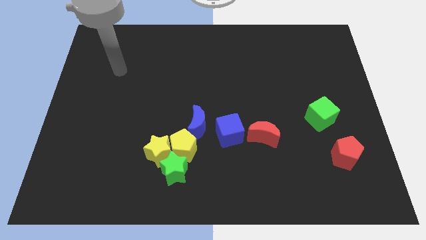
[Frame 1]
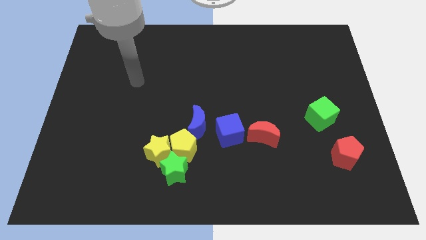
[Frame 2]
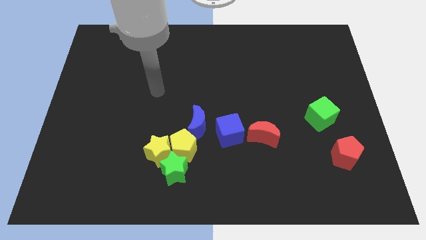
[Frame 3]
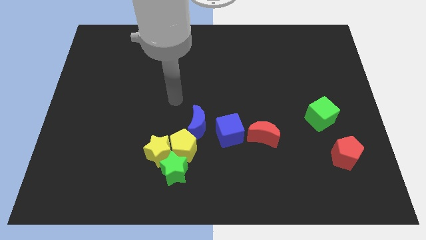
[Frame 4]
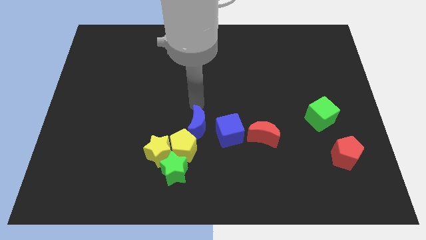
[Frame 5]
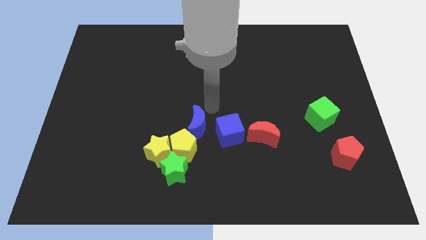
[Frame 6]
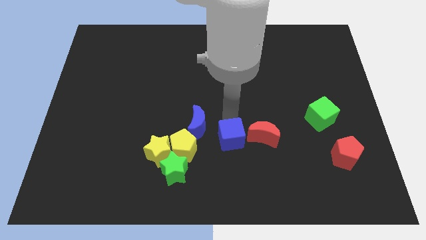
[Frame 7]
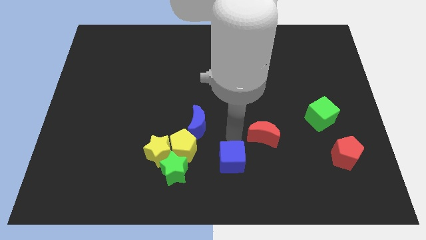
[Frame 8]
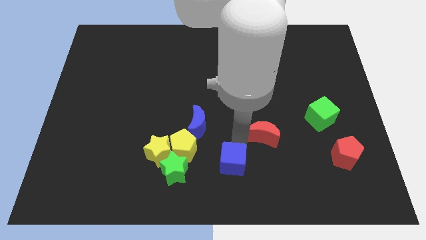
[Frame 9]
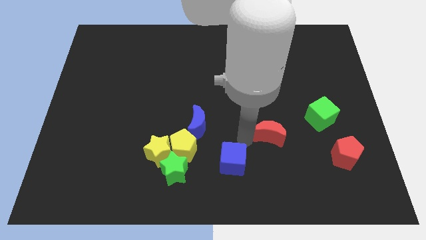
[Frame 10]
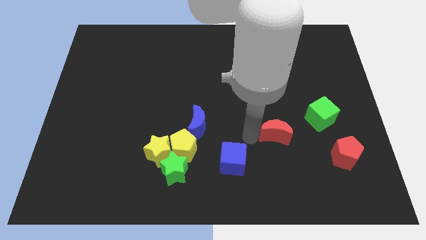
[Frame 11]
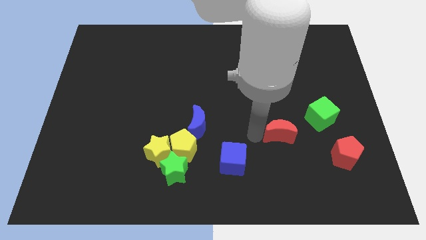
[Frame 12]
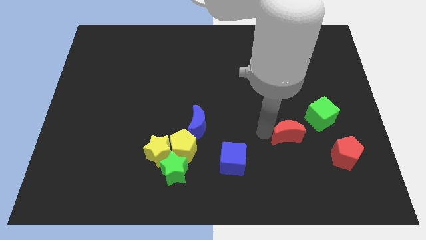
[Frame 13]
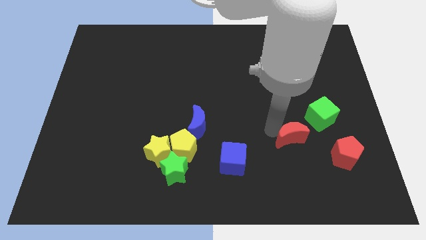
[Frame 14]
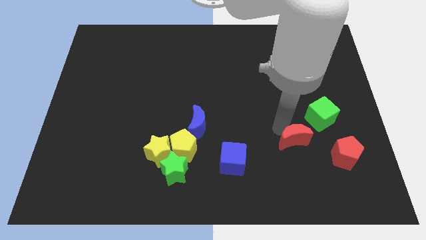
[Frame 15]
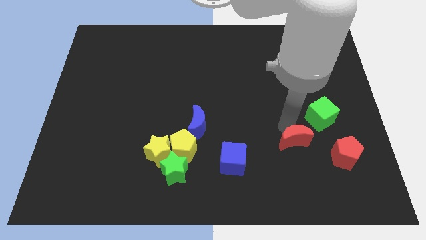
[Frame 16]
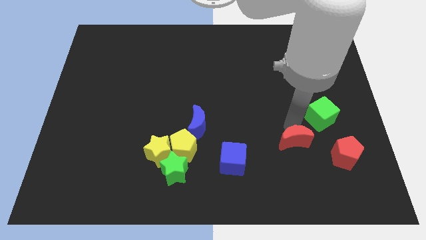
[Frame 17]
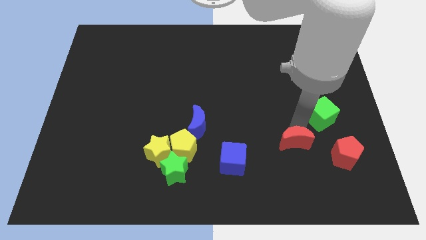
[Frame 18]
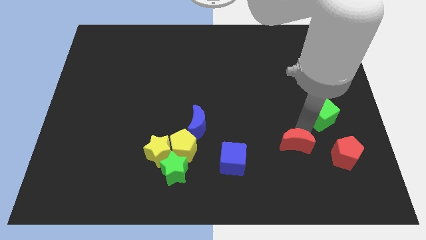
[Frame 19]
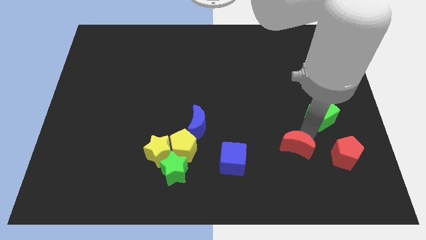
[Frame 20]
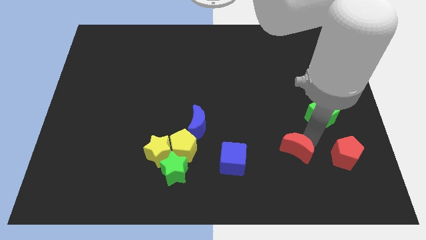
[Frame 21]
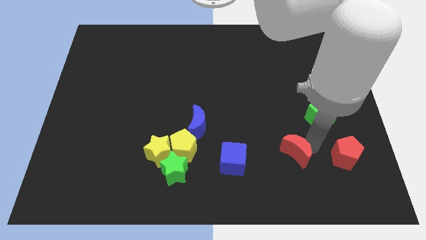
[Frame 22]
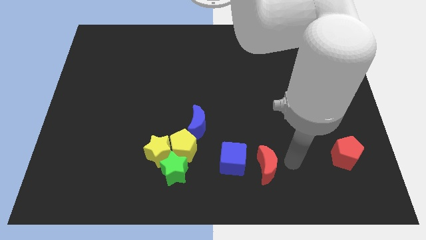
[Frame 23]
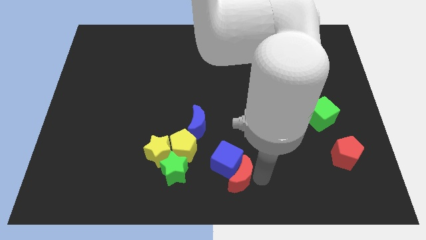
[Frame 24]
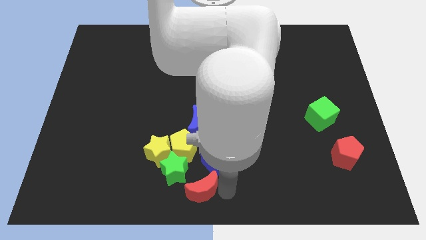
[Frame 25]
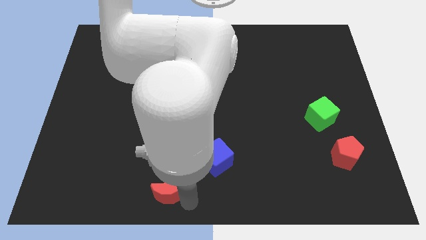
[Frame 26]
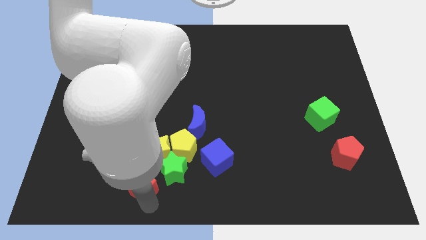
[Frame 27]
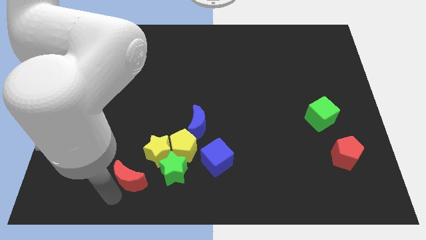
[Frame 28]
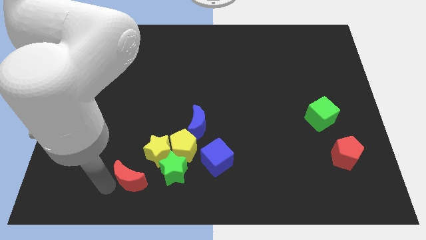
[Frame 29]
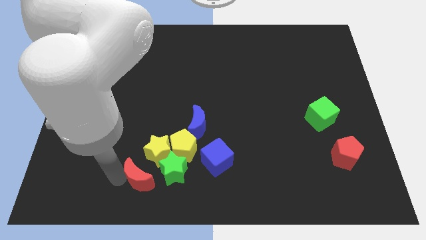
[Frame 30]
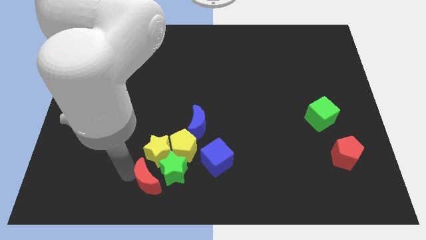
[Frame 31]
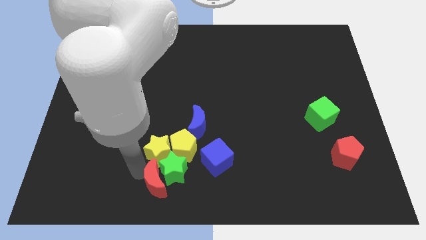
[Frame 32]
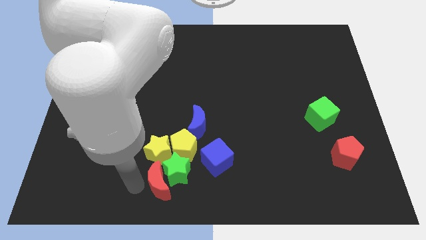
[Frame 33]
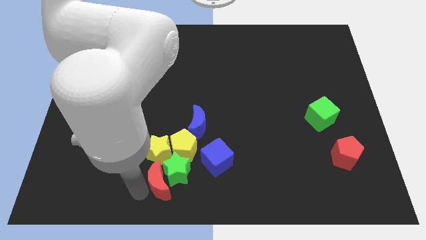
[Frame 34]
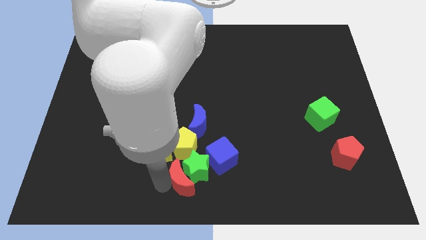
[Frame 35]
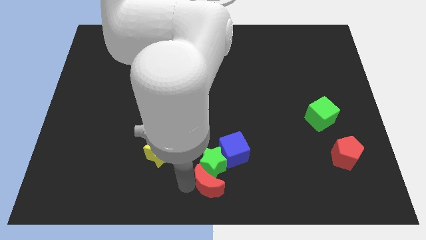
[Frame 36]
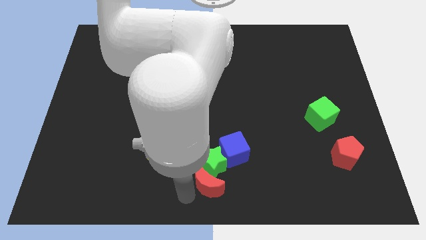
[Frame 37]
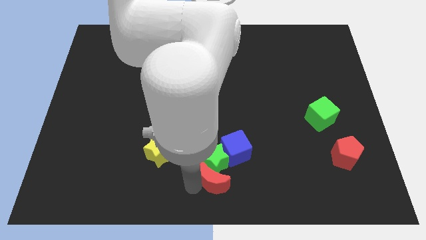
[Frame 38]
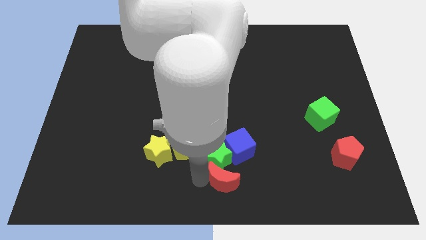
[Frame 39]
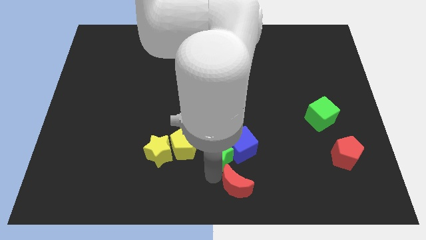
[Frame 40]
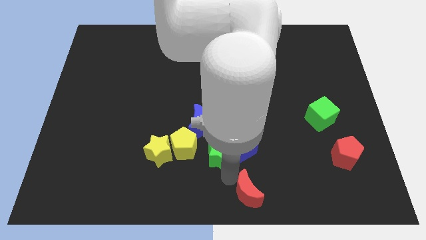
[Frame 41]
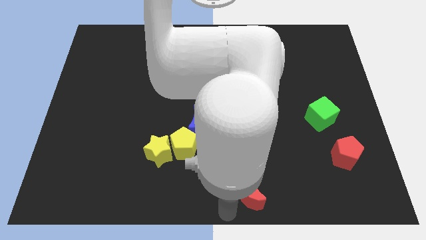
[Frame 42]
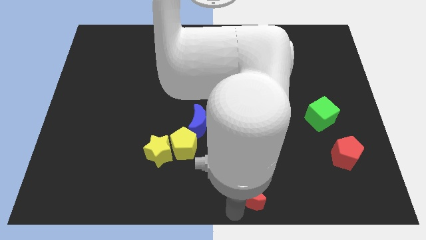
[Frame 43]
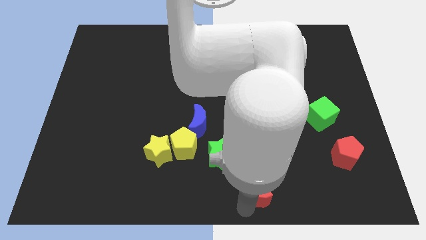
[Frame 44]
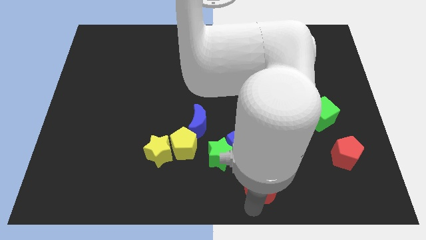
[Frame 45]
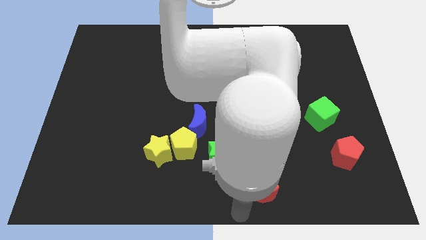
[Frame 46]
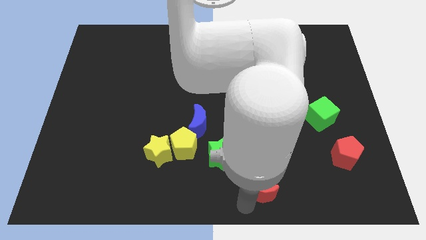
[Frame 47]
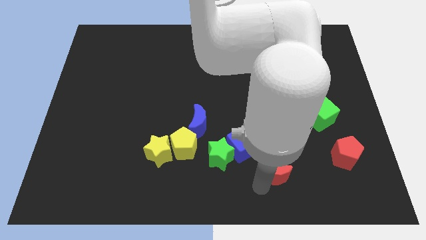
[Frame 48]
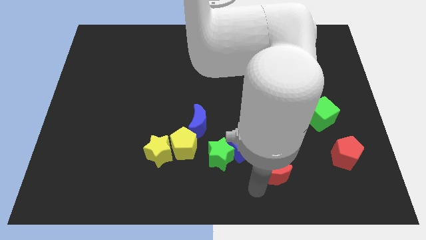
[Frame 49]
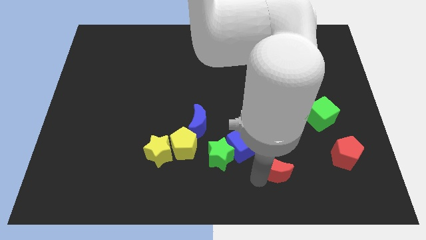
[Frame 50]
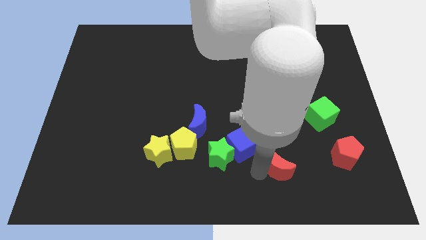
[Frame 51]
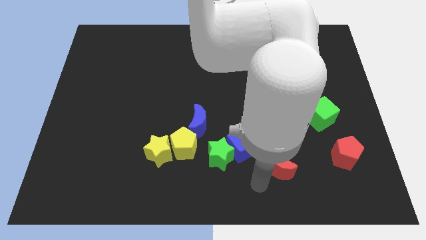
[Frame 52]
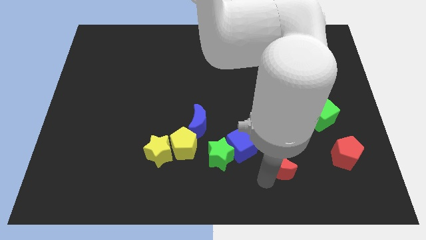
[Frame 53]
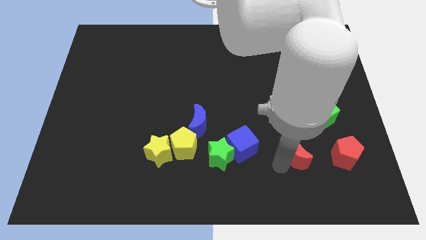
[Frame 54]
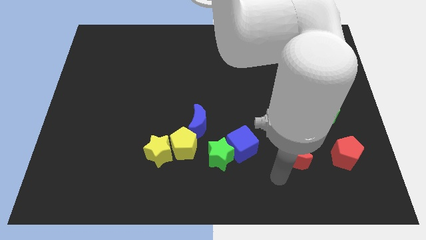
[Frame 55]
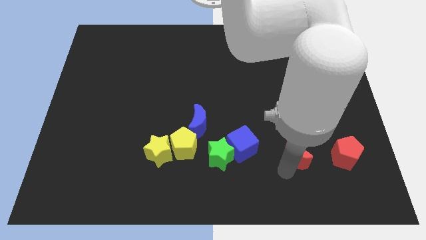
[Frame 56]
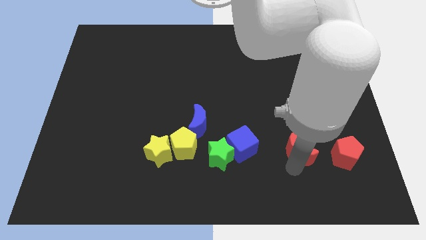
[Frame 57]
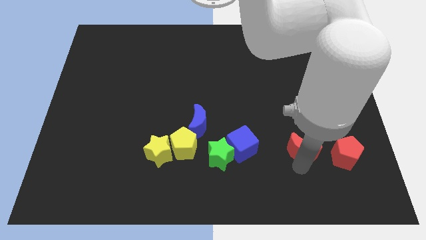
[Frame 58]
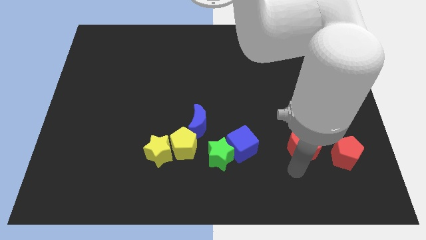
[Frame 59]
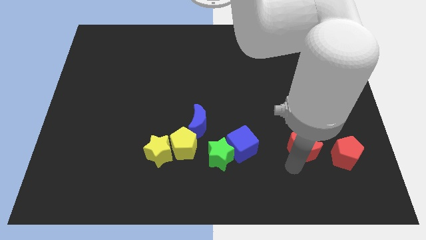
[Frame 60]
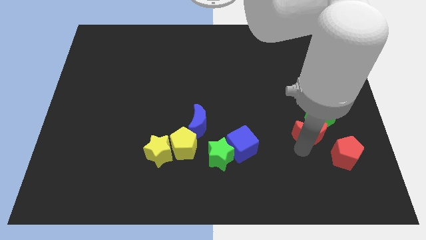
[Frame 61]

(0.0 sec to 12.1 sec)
move the red moon towards the green cube
